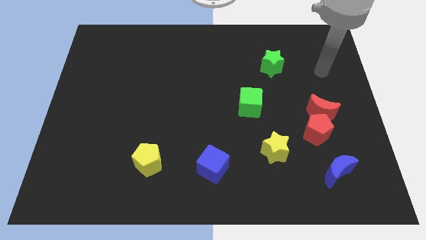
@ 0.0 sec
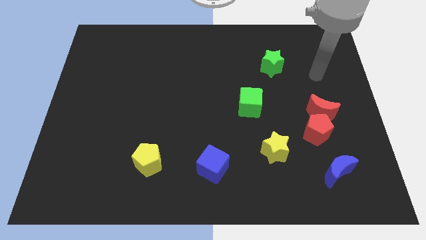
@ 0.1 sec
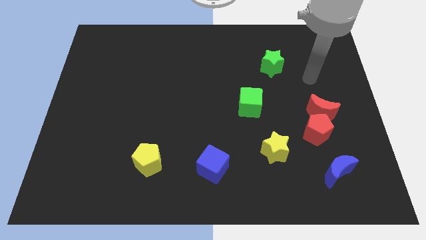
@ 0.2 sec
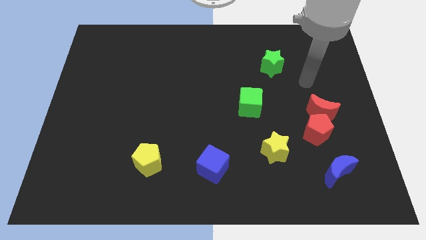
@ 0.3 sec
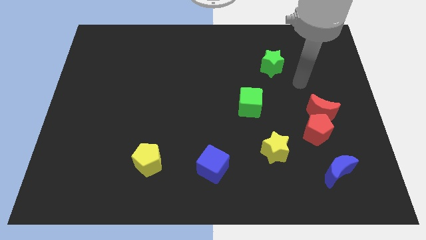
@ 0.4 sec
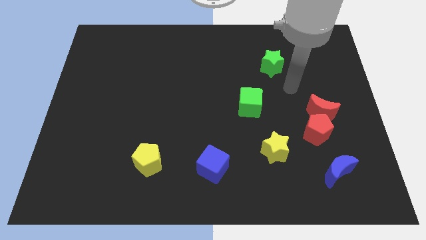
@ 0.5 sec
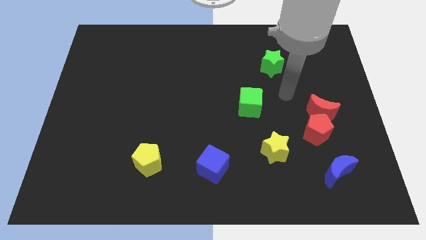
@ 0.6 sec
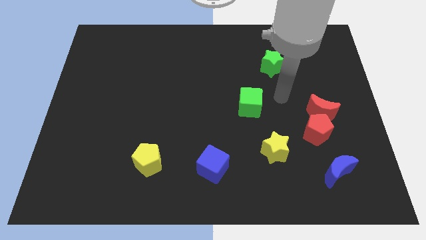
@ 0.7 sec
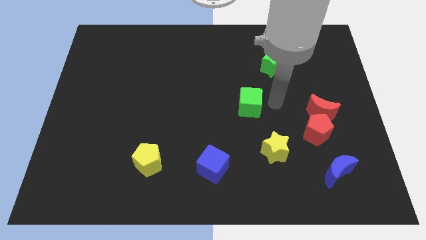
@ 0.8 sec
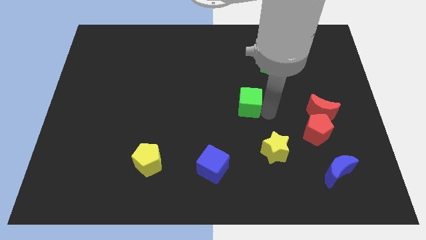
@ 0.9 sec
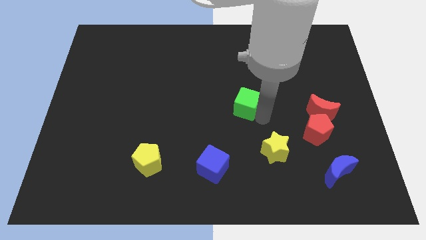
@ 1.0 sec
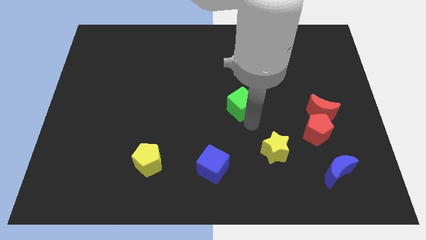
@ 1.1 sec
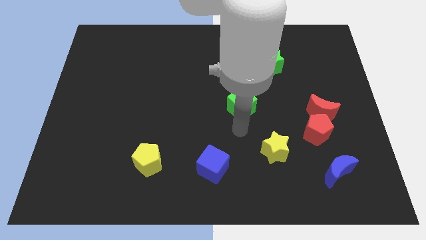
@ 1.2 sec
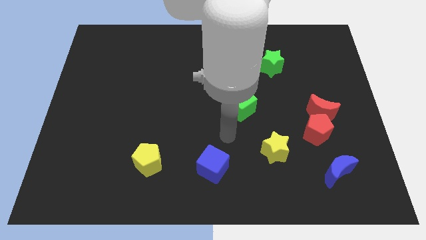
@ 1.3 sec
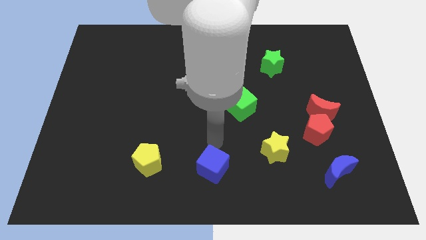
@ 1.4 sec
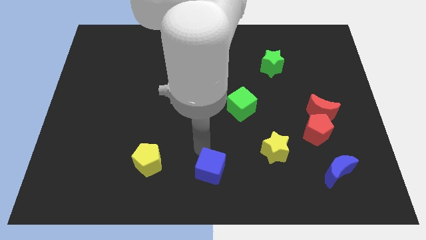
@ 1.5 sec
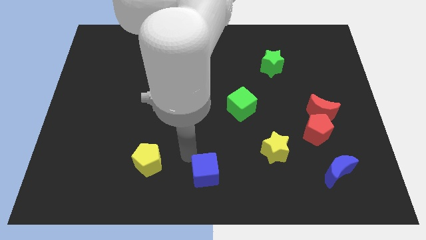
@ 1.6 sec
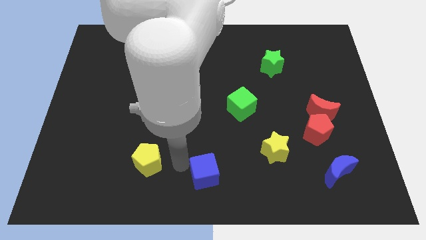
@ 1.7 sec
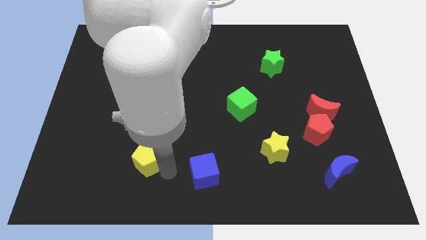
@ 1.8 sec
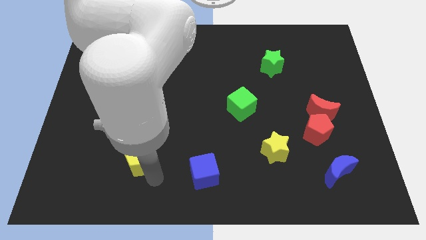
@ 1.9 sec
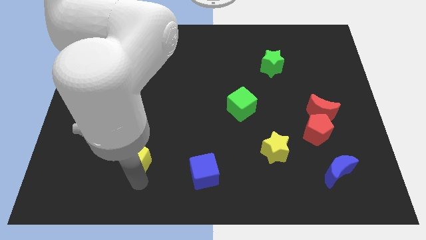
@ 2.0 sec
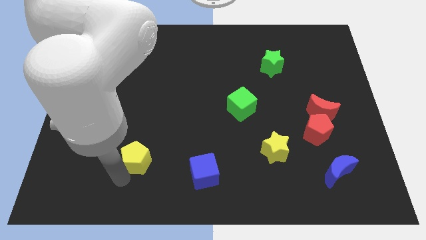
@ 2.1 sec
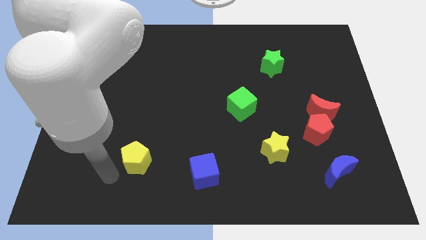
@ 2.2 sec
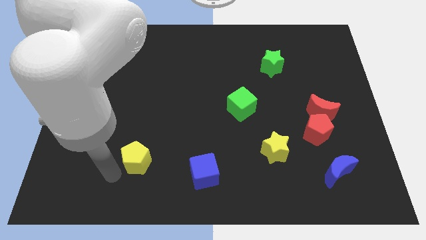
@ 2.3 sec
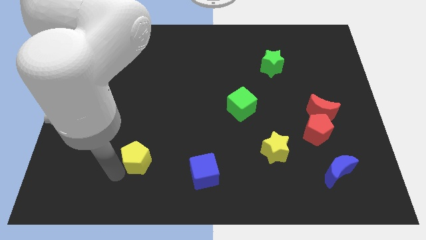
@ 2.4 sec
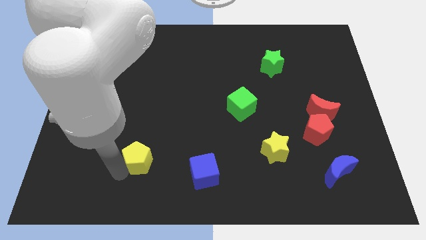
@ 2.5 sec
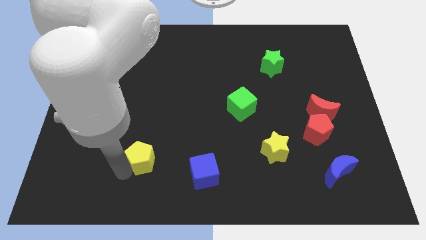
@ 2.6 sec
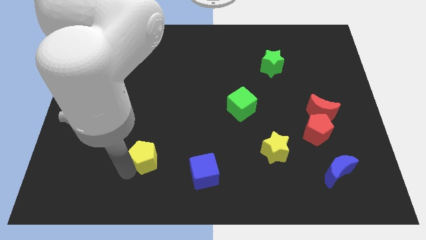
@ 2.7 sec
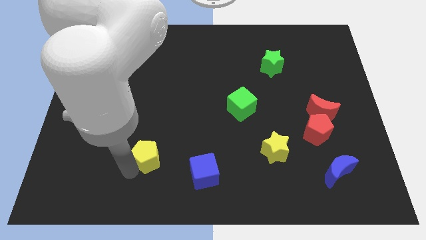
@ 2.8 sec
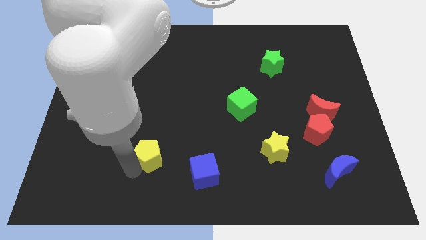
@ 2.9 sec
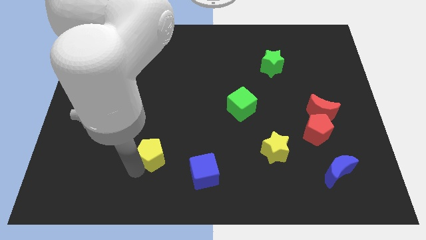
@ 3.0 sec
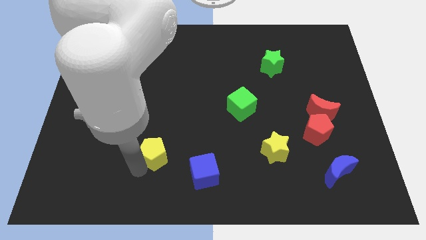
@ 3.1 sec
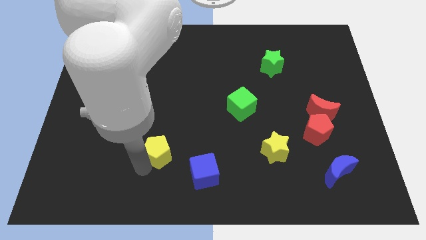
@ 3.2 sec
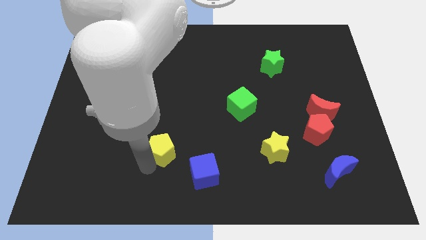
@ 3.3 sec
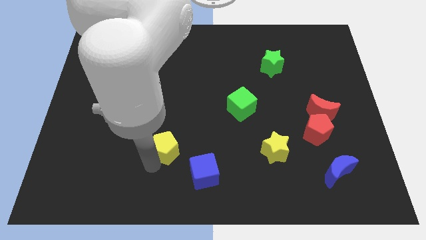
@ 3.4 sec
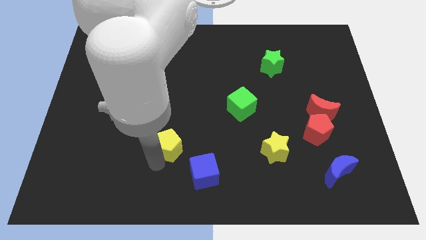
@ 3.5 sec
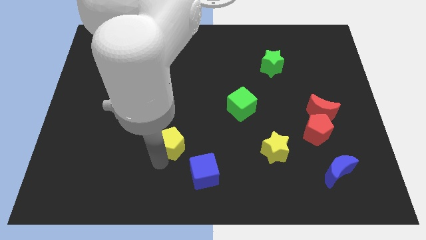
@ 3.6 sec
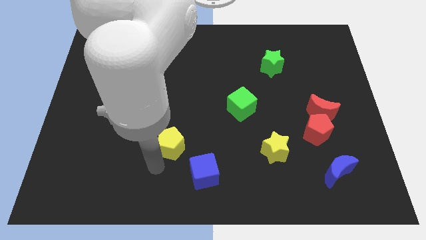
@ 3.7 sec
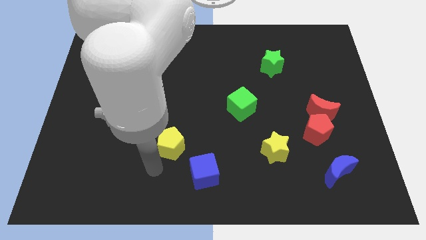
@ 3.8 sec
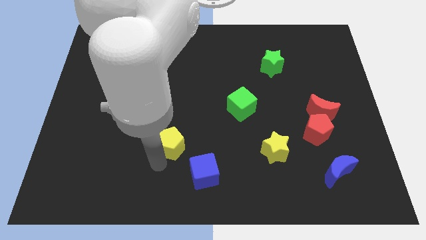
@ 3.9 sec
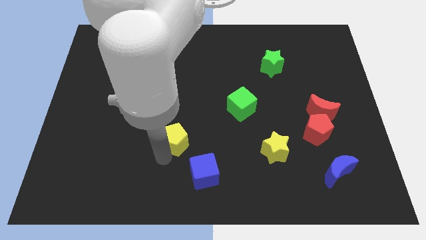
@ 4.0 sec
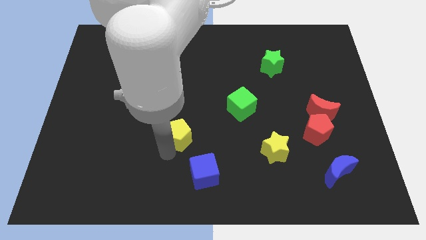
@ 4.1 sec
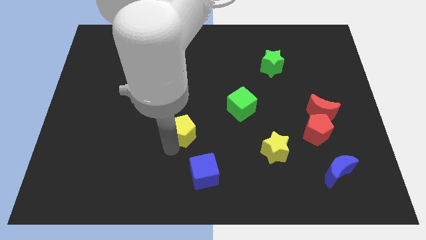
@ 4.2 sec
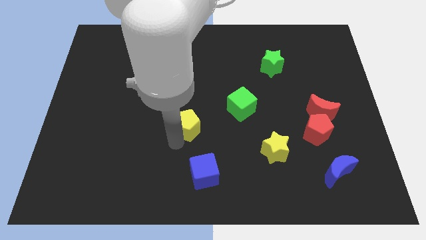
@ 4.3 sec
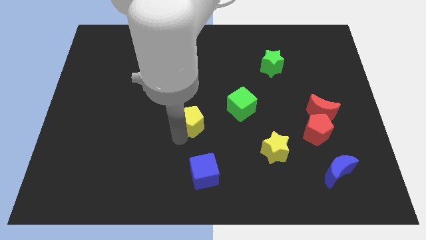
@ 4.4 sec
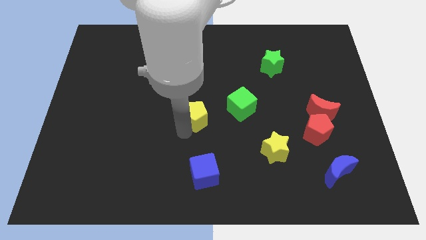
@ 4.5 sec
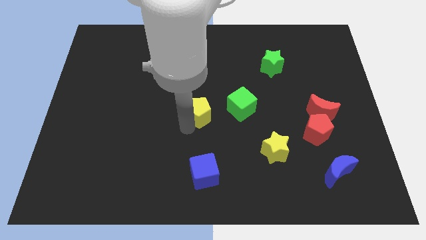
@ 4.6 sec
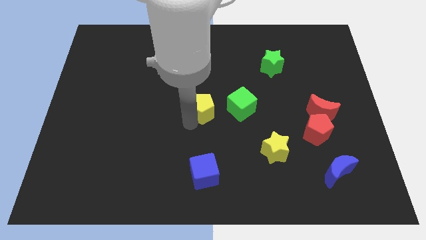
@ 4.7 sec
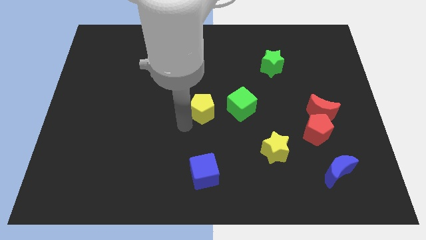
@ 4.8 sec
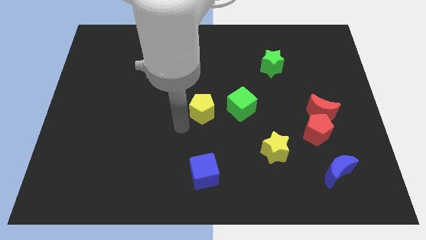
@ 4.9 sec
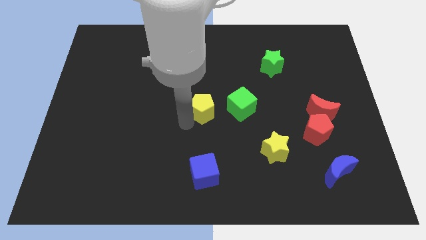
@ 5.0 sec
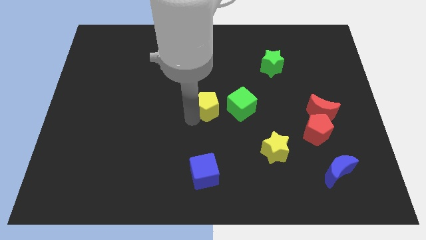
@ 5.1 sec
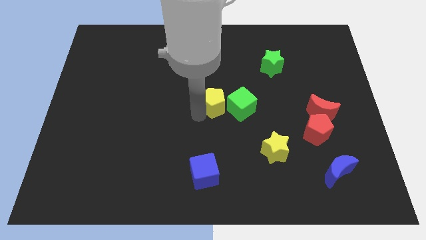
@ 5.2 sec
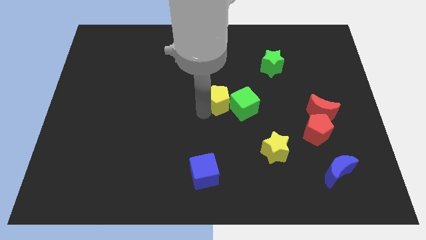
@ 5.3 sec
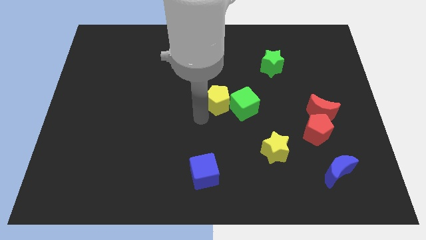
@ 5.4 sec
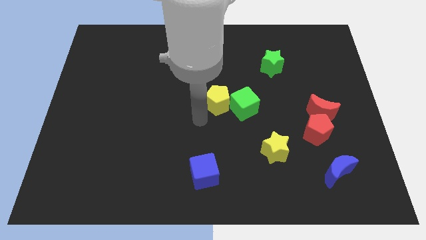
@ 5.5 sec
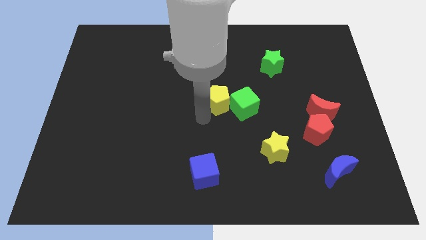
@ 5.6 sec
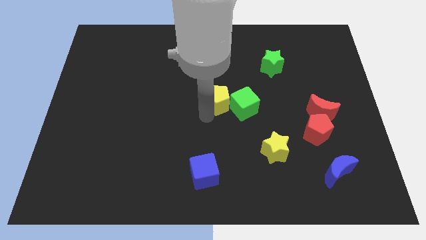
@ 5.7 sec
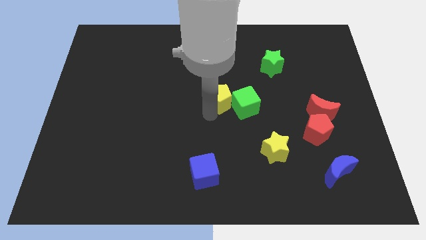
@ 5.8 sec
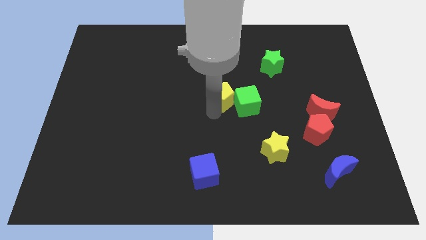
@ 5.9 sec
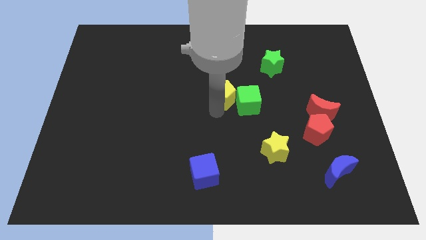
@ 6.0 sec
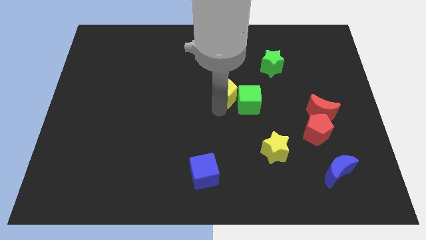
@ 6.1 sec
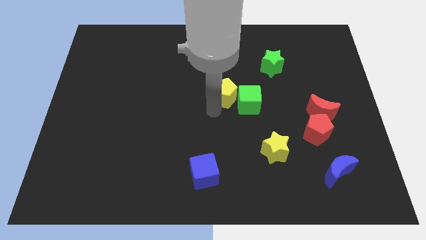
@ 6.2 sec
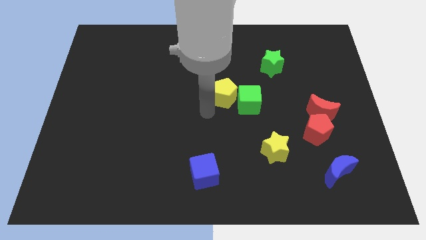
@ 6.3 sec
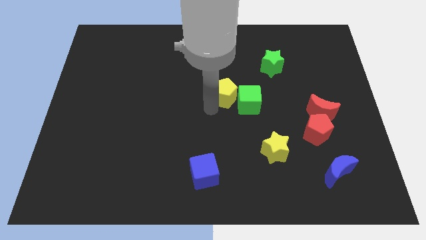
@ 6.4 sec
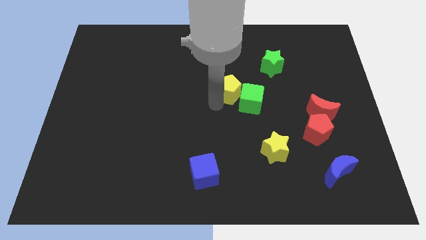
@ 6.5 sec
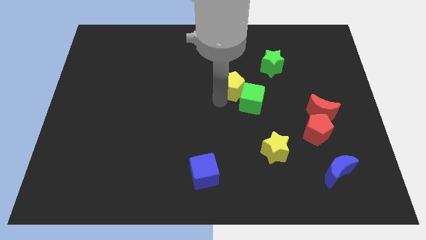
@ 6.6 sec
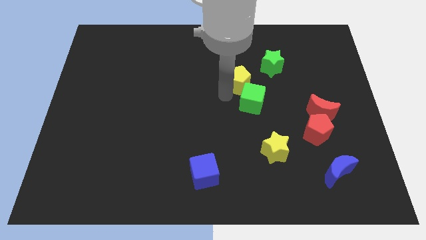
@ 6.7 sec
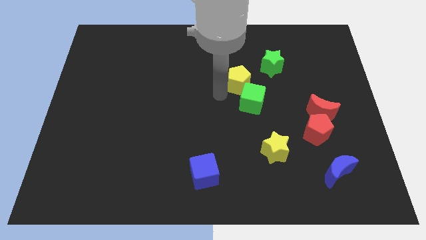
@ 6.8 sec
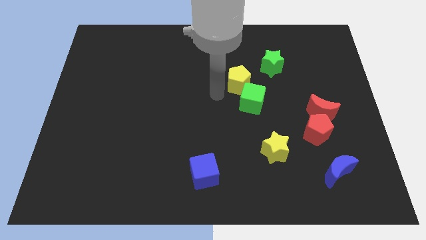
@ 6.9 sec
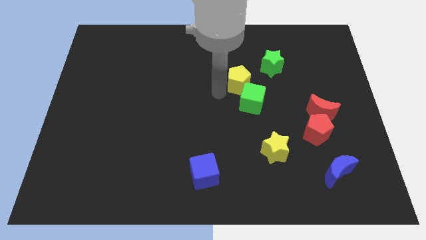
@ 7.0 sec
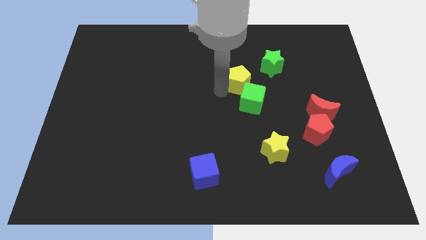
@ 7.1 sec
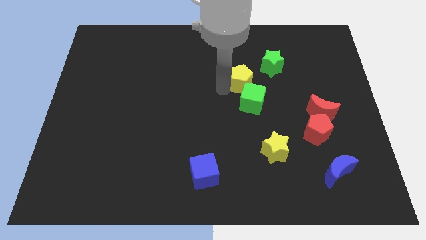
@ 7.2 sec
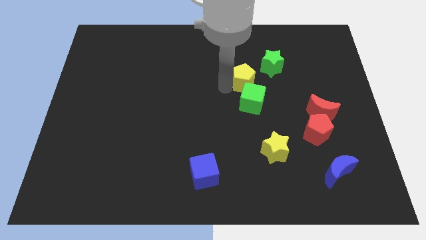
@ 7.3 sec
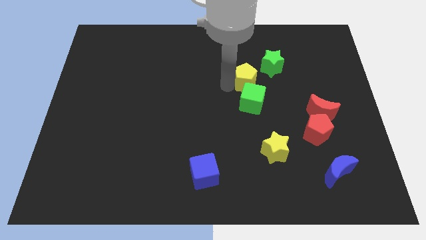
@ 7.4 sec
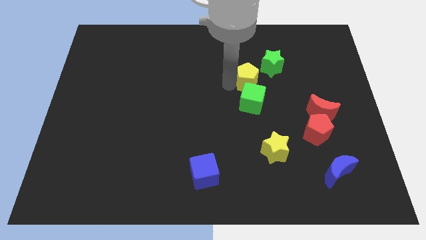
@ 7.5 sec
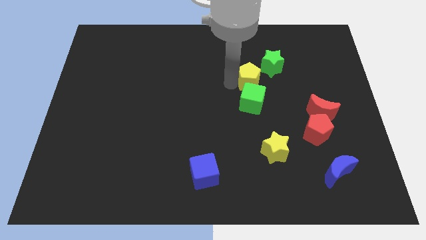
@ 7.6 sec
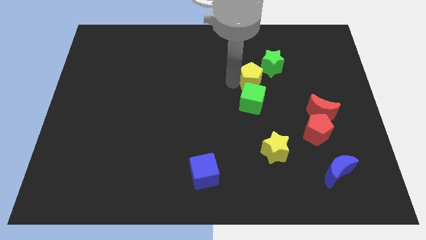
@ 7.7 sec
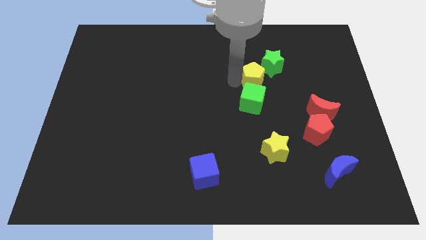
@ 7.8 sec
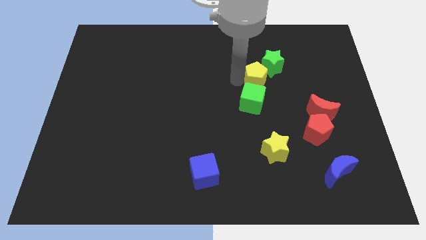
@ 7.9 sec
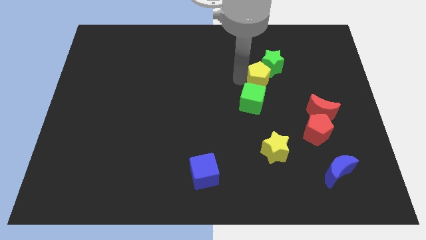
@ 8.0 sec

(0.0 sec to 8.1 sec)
move the yellow pentagon towards the green star
